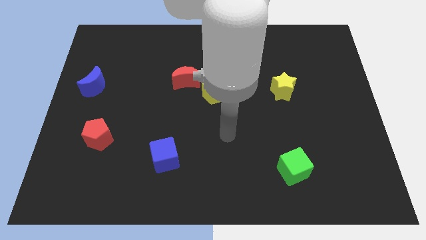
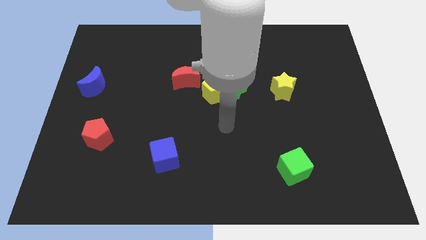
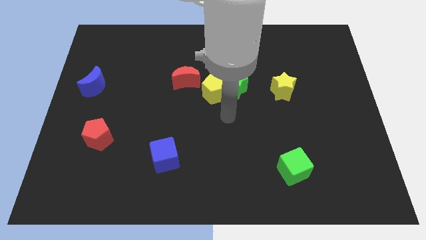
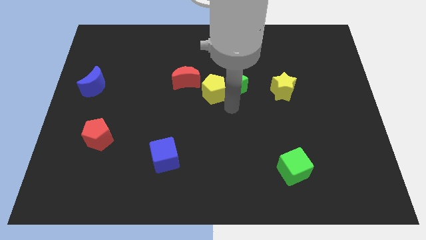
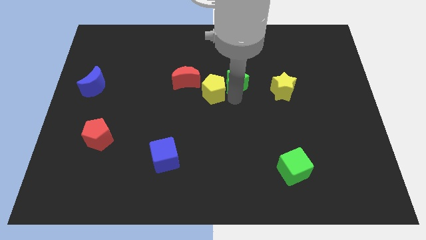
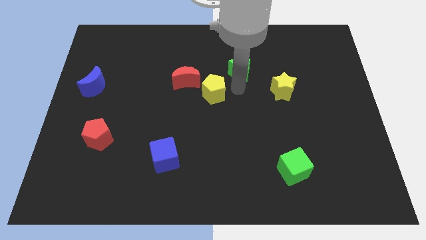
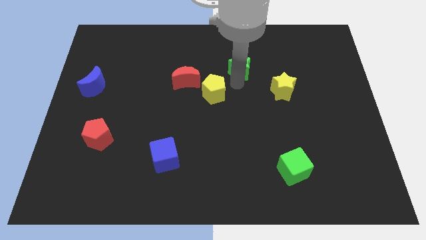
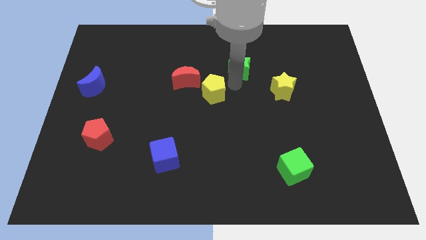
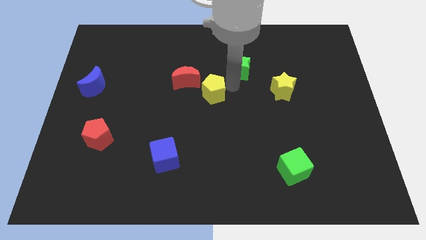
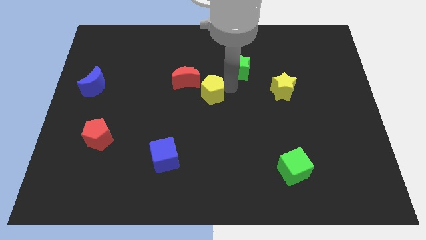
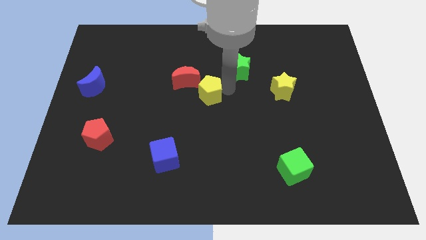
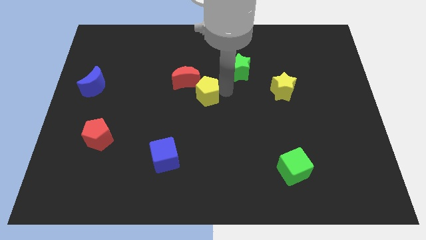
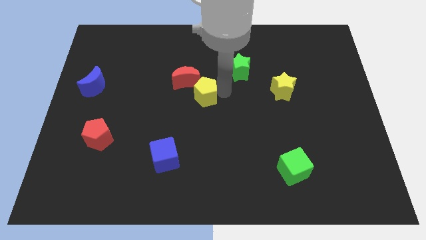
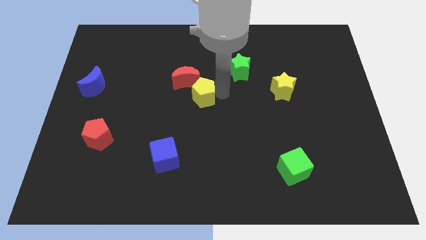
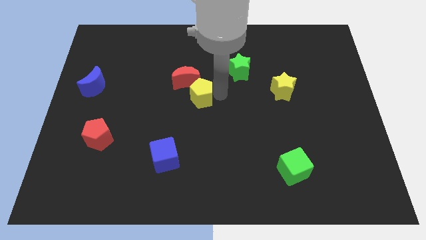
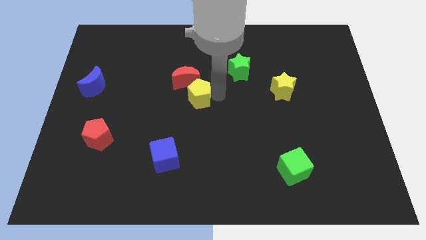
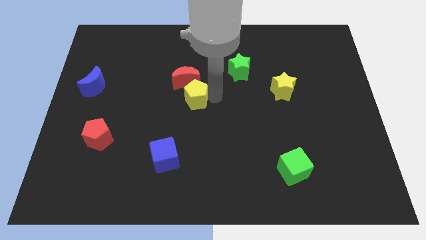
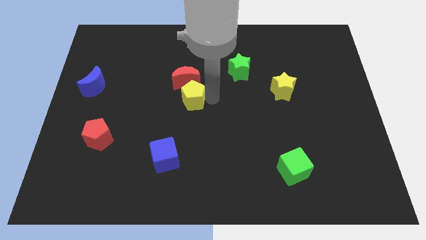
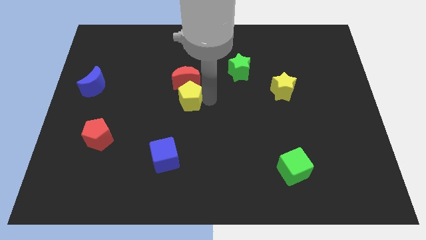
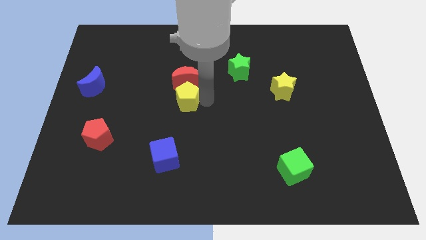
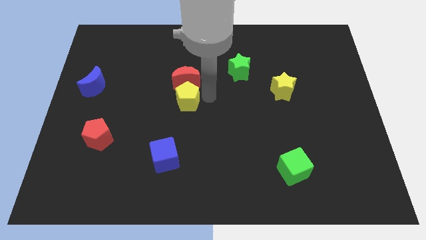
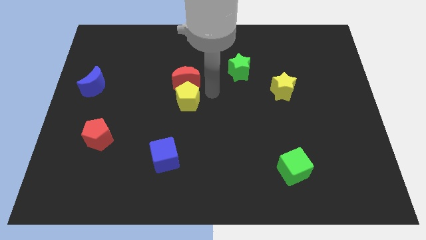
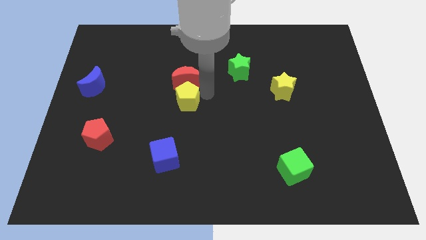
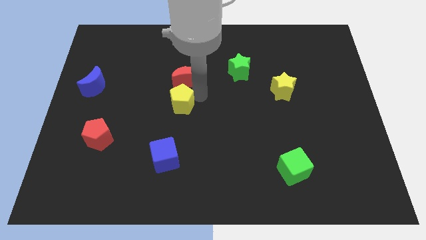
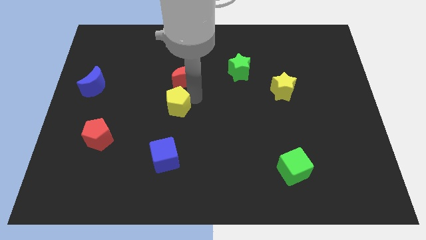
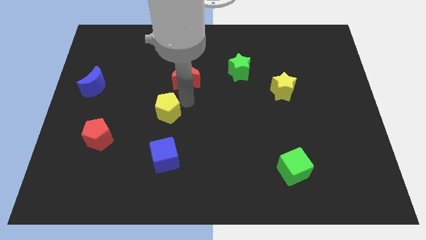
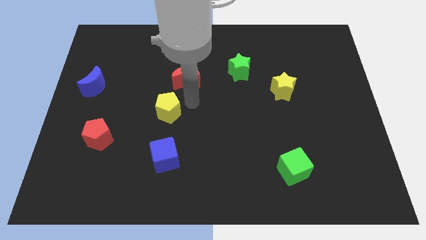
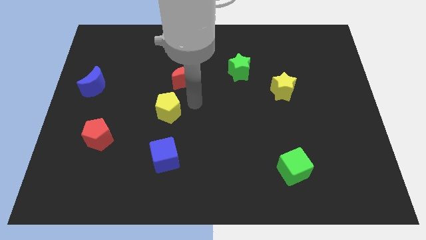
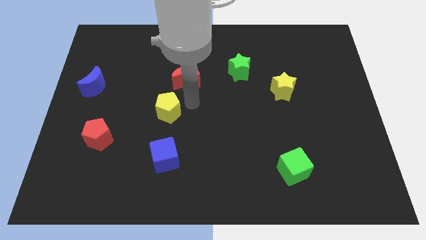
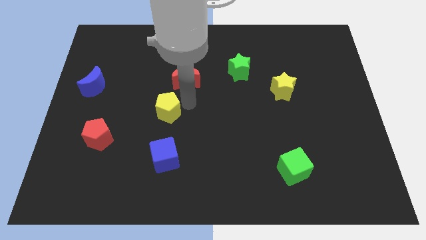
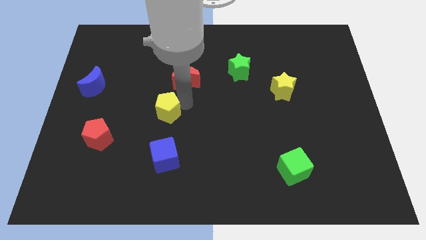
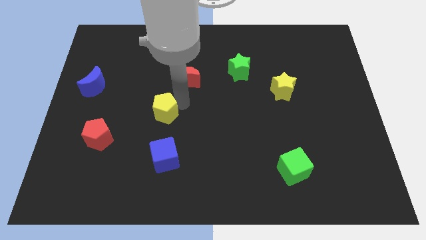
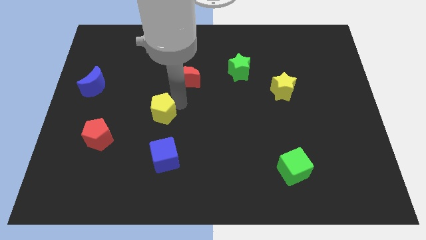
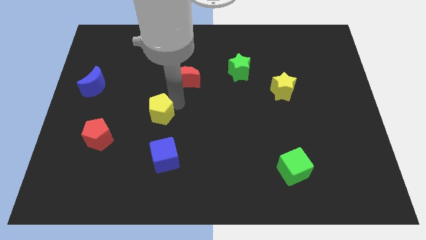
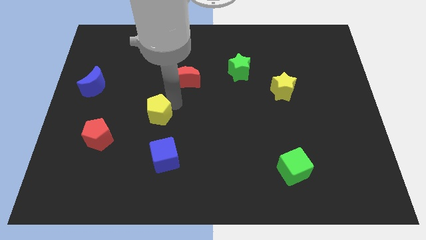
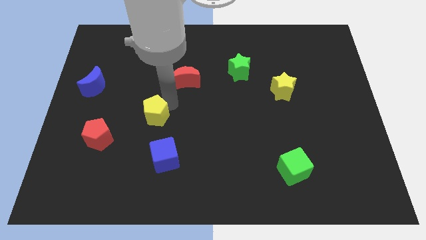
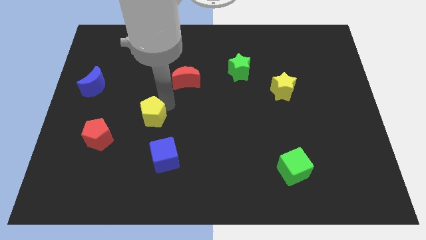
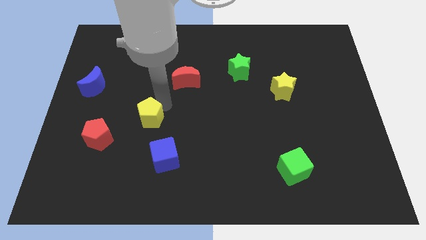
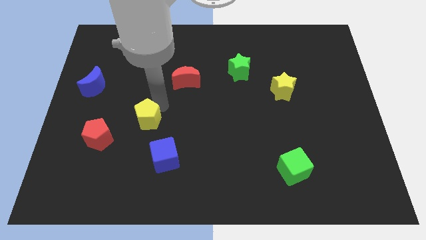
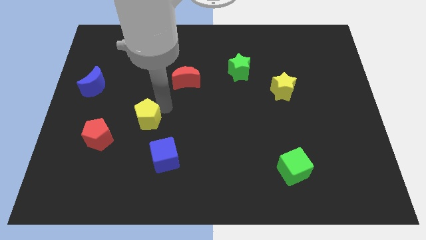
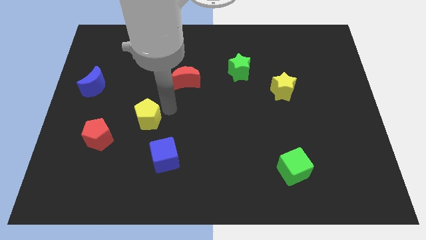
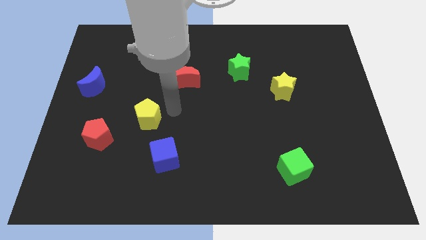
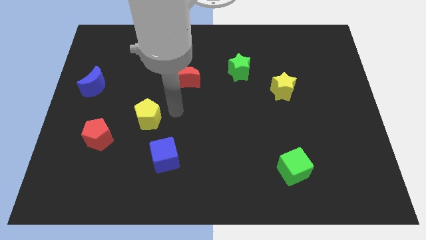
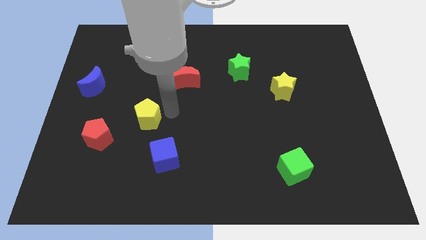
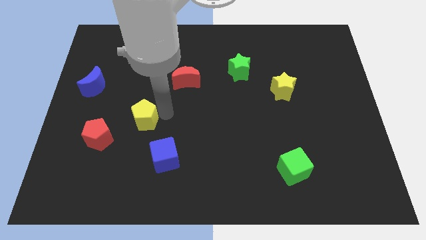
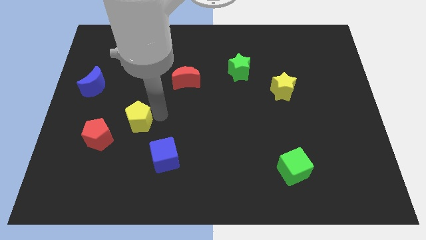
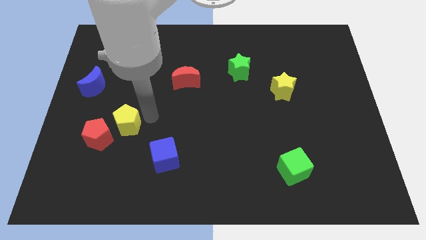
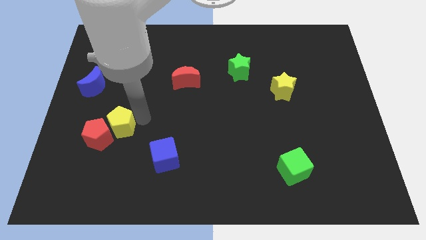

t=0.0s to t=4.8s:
slide the yellow pentagon next to the red pentagon

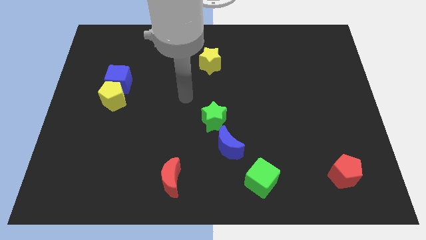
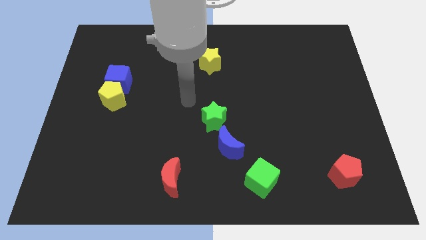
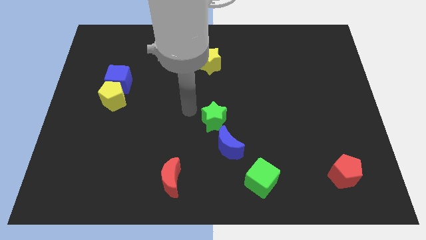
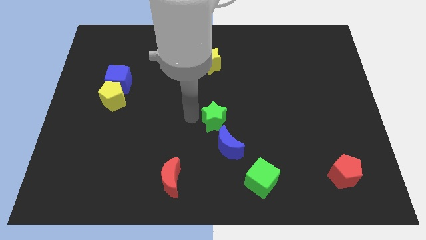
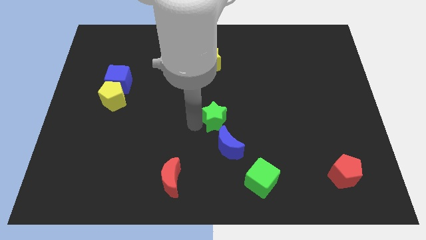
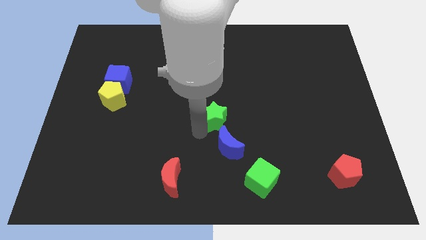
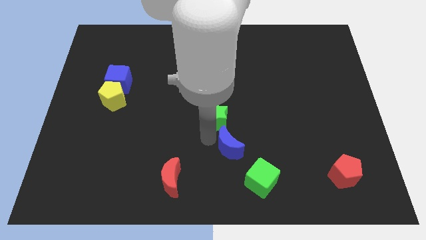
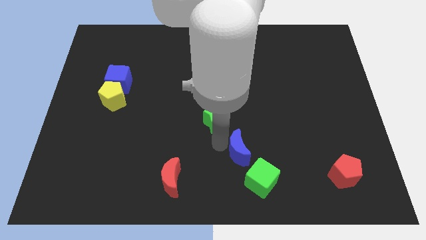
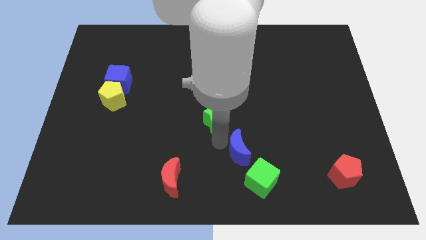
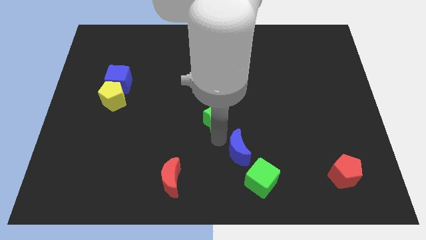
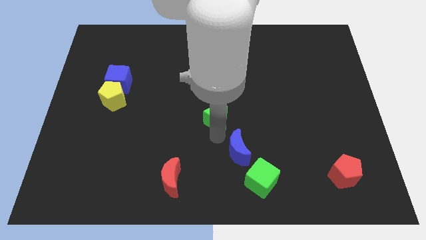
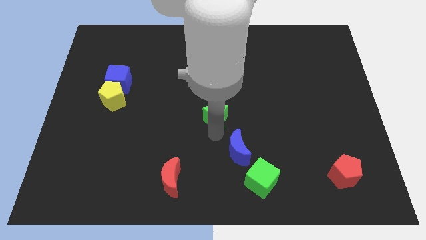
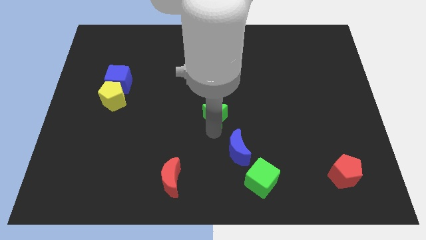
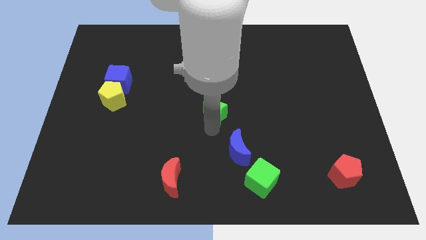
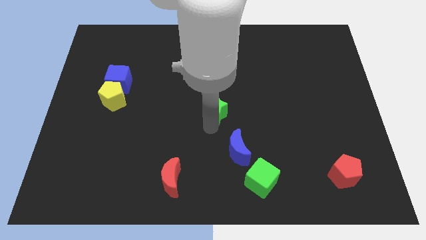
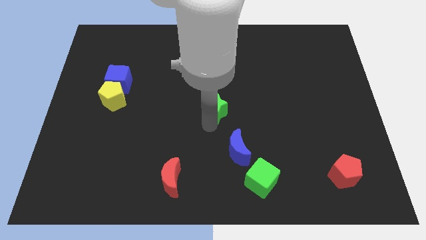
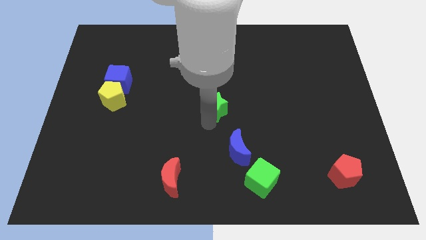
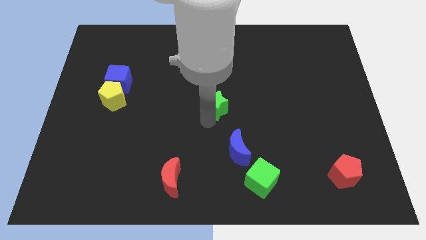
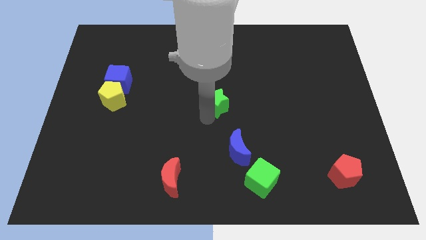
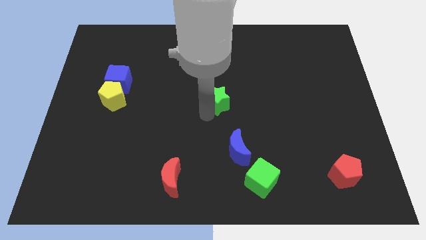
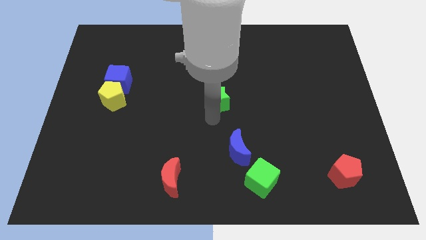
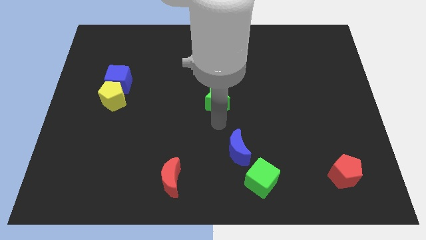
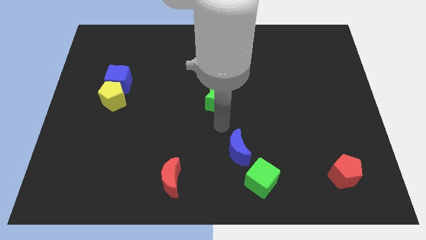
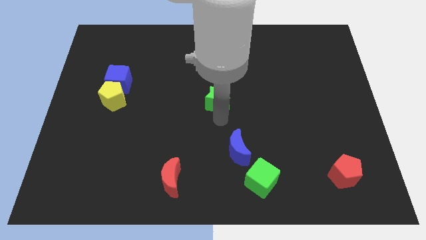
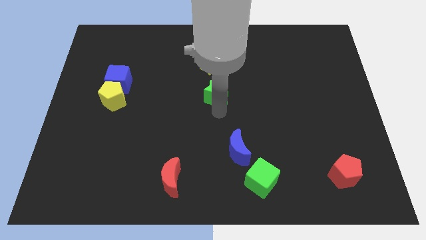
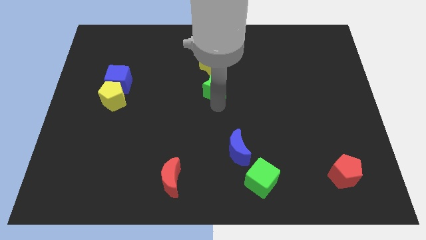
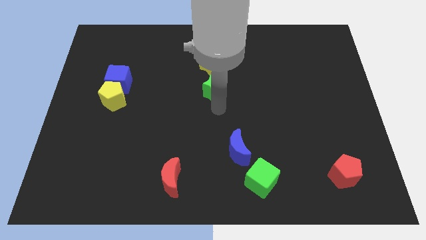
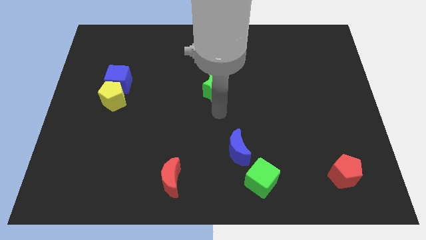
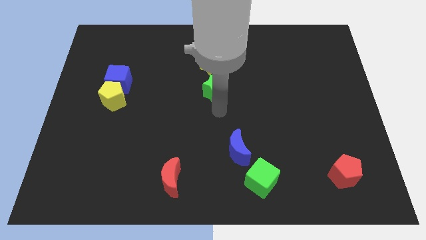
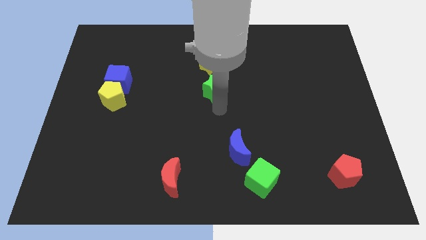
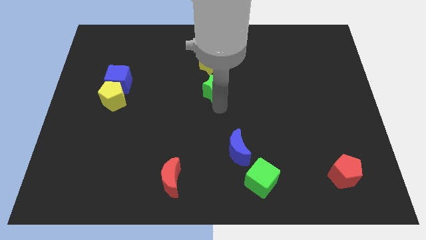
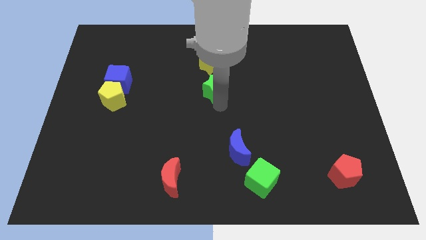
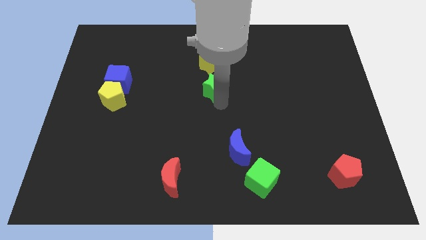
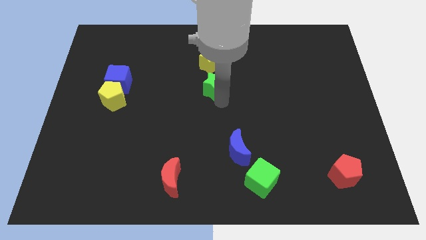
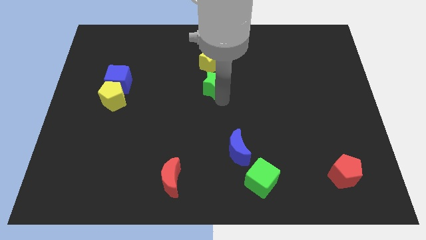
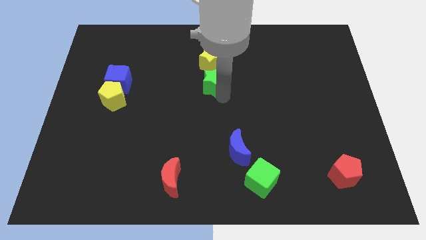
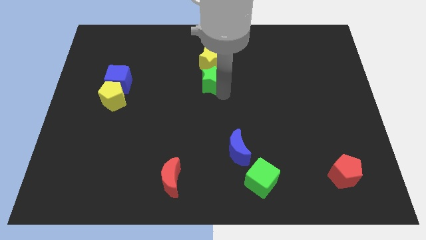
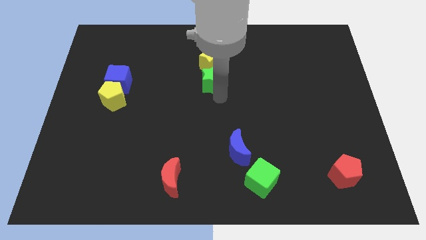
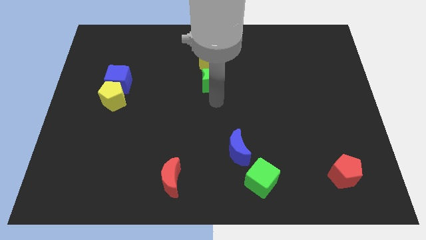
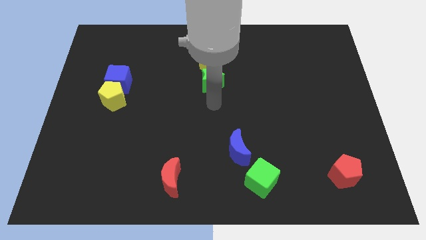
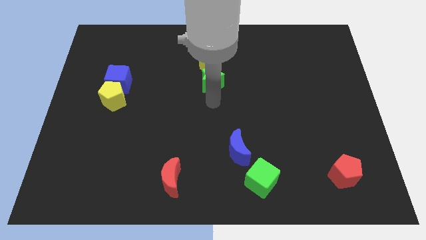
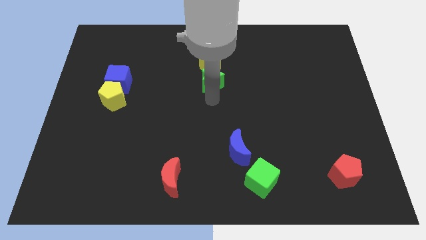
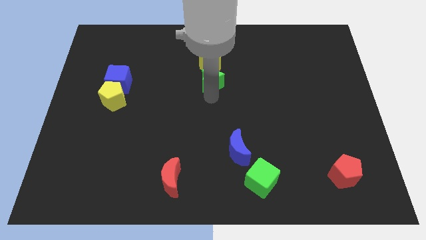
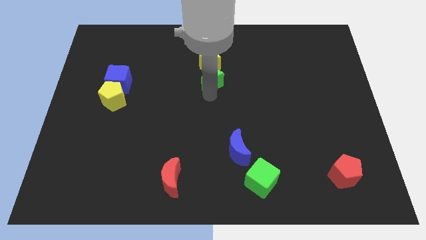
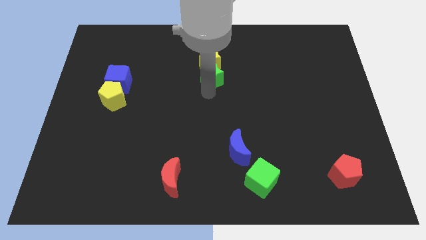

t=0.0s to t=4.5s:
move the green star close to the yellow star
